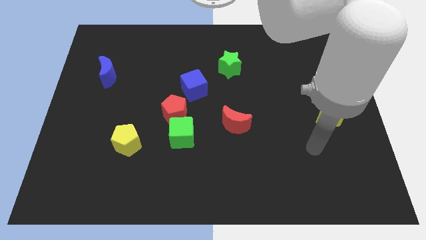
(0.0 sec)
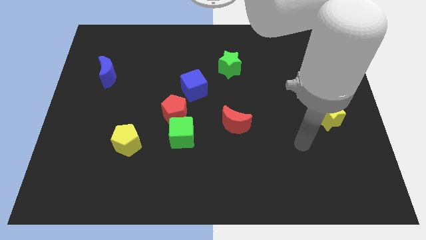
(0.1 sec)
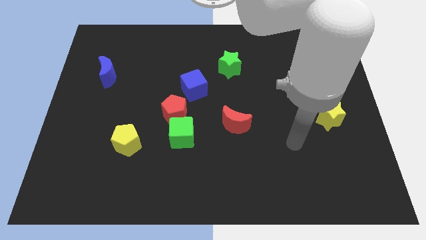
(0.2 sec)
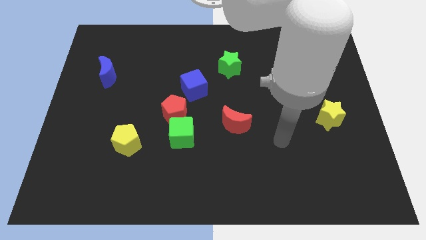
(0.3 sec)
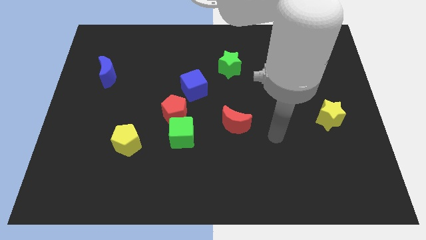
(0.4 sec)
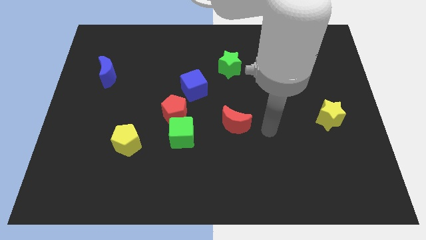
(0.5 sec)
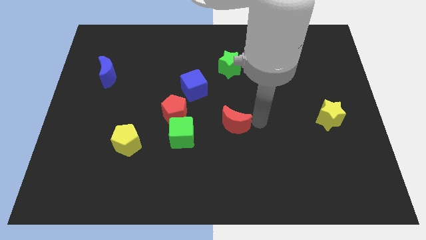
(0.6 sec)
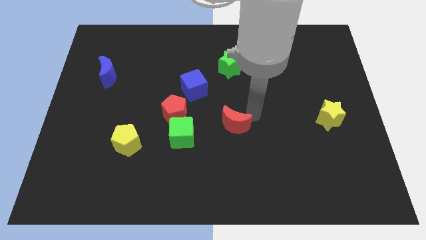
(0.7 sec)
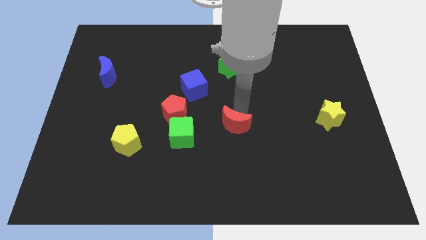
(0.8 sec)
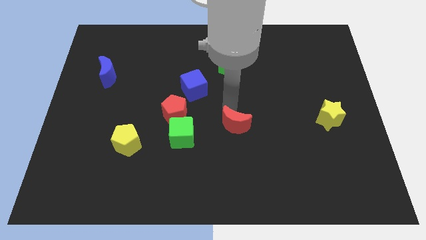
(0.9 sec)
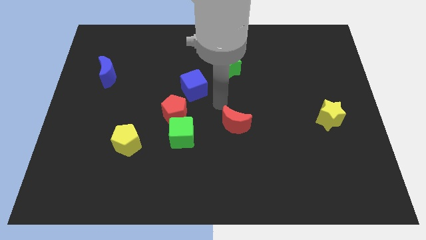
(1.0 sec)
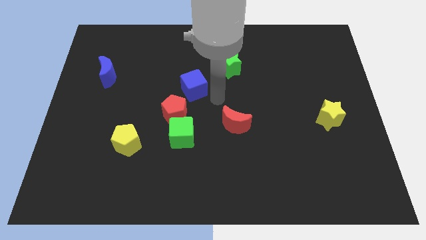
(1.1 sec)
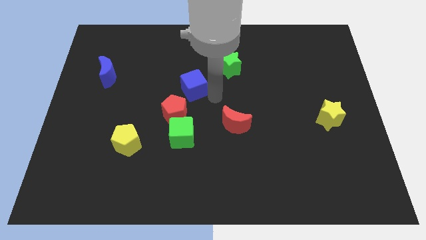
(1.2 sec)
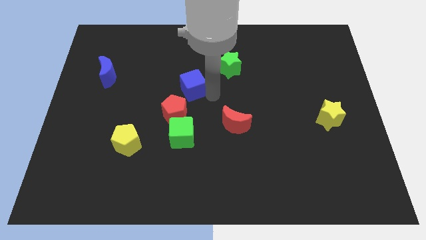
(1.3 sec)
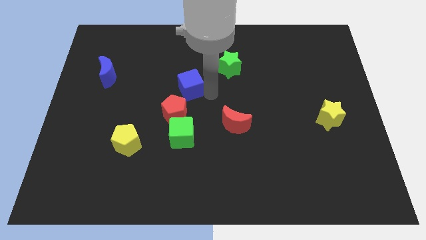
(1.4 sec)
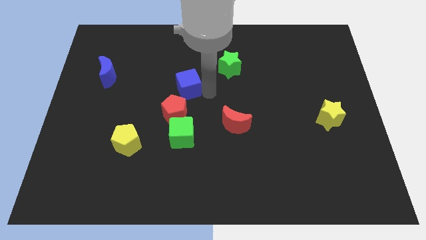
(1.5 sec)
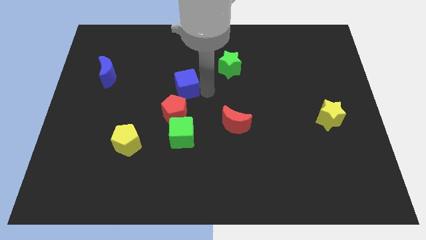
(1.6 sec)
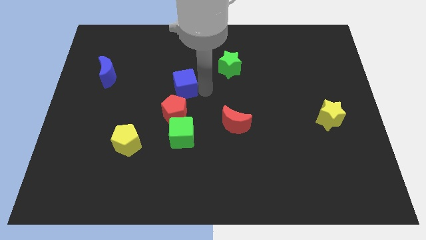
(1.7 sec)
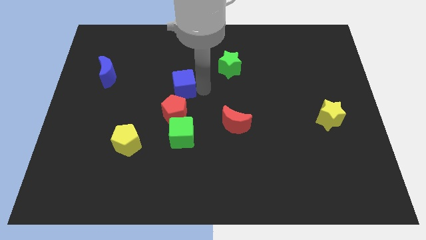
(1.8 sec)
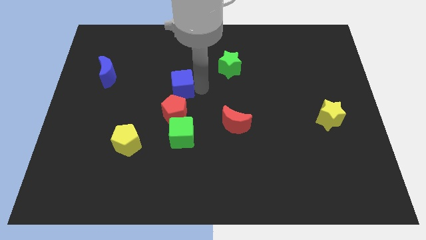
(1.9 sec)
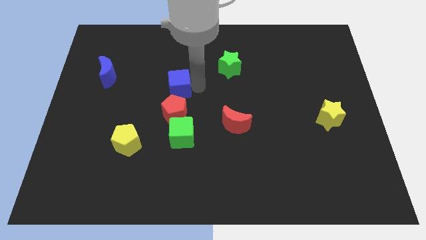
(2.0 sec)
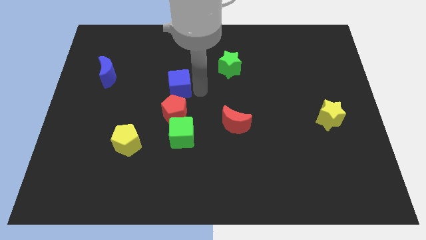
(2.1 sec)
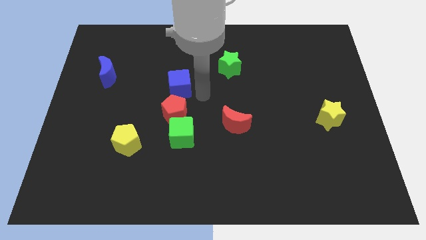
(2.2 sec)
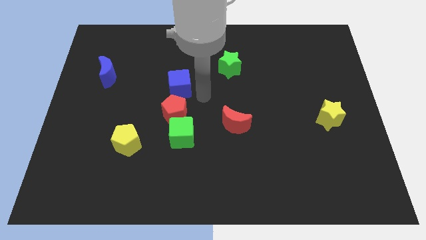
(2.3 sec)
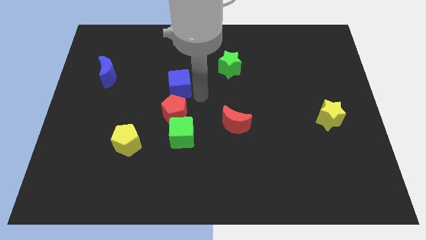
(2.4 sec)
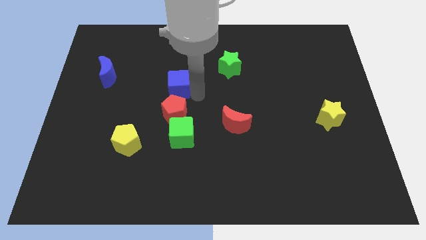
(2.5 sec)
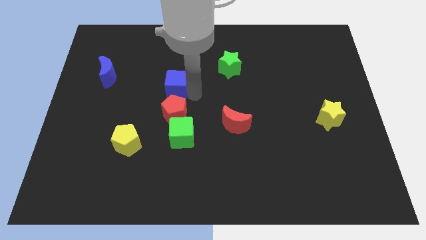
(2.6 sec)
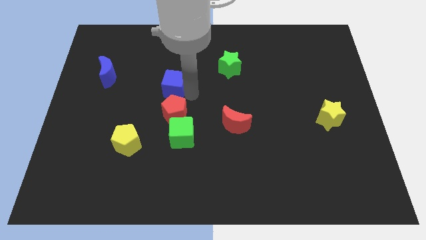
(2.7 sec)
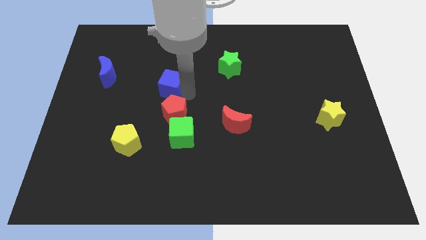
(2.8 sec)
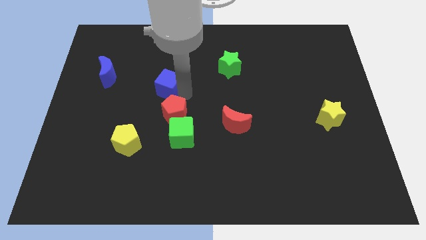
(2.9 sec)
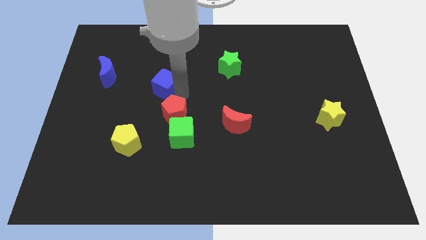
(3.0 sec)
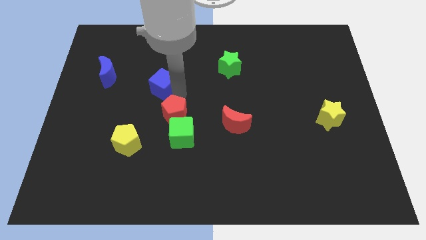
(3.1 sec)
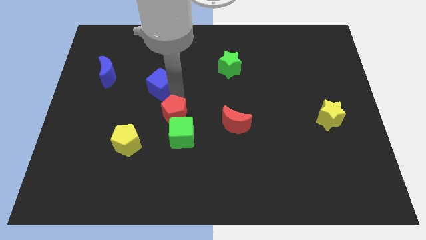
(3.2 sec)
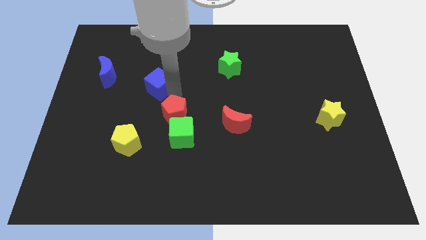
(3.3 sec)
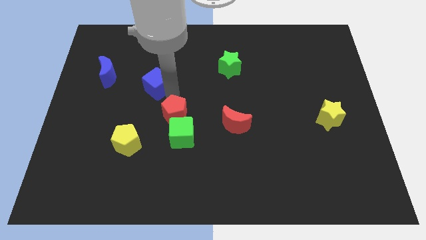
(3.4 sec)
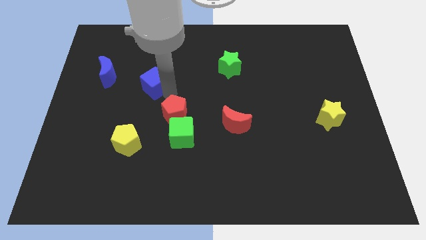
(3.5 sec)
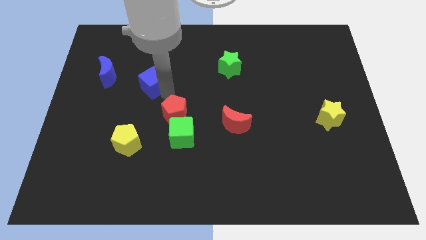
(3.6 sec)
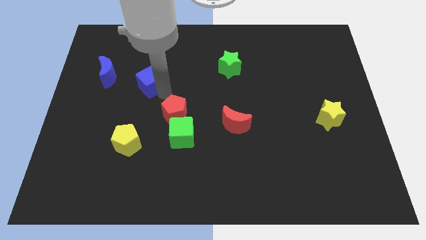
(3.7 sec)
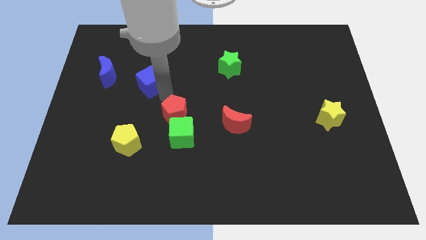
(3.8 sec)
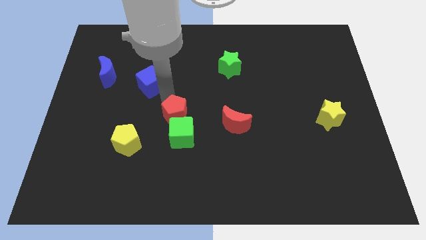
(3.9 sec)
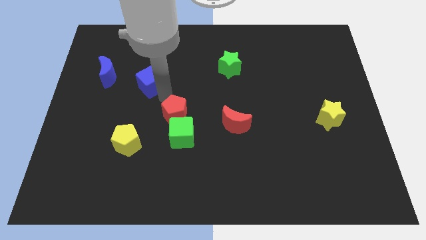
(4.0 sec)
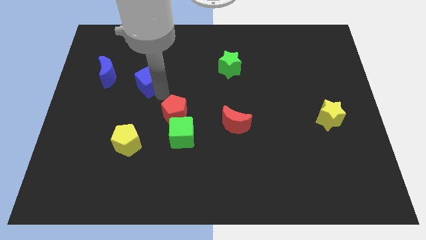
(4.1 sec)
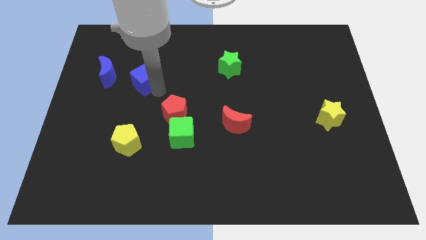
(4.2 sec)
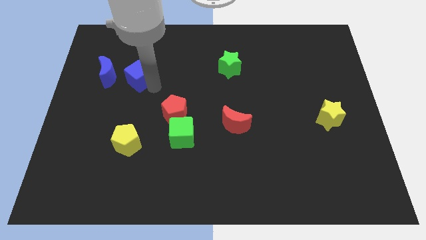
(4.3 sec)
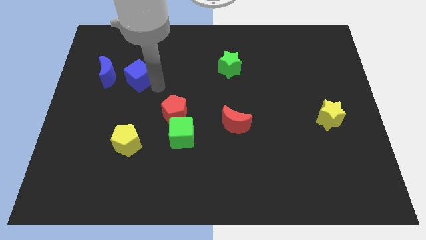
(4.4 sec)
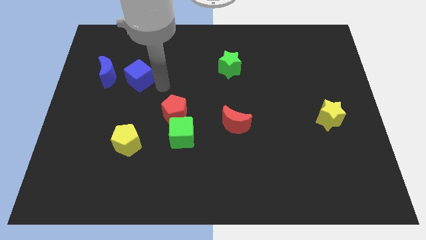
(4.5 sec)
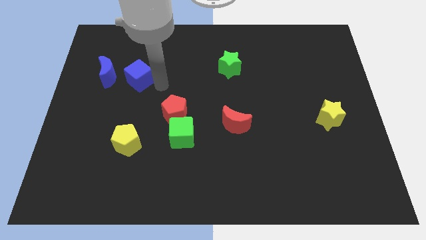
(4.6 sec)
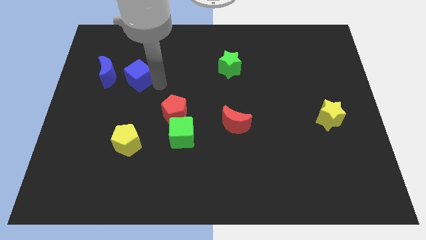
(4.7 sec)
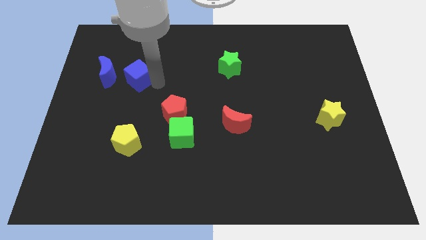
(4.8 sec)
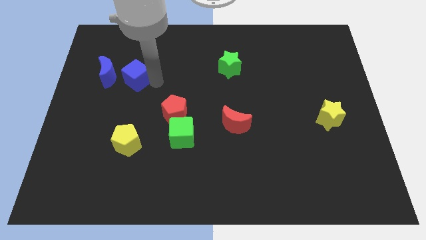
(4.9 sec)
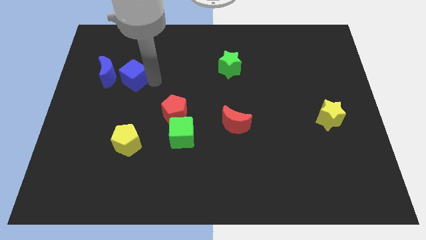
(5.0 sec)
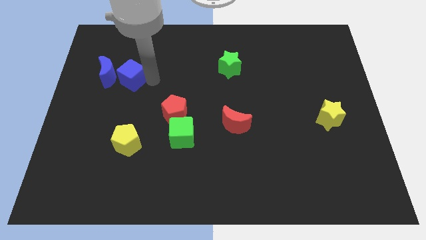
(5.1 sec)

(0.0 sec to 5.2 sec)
move the blue cube to the blue moon

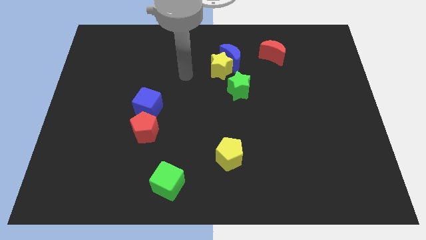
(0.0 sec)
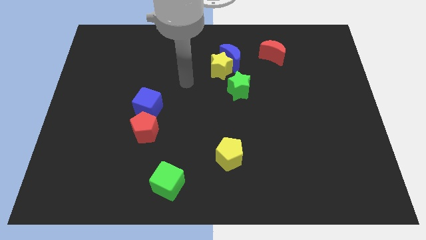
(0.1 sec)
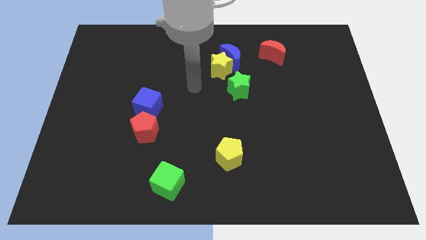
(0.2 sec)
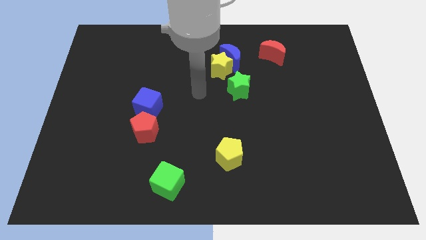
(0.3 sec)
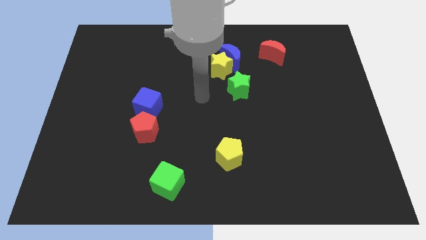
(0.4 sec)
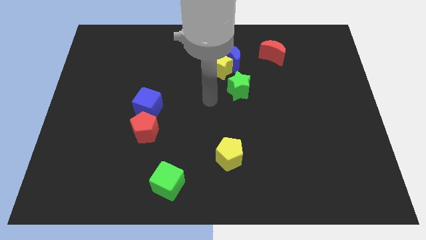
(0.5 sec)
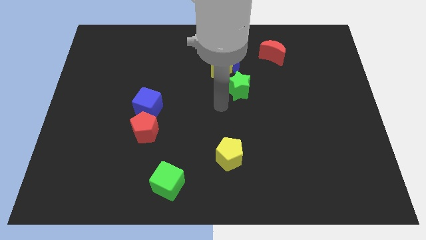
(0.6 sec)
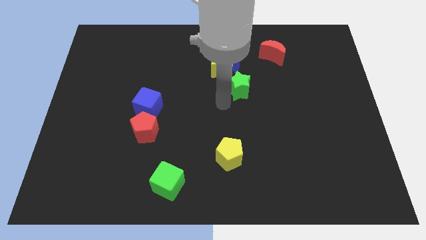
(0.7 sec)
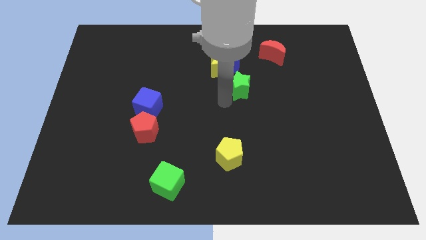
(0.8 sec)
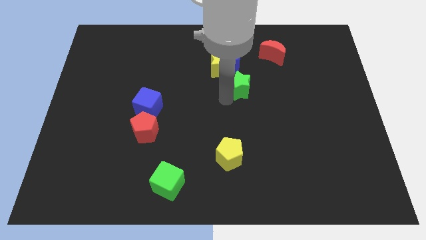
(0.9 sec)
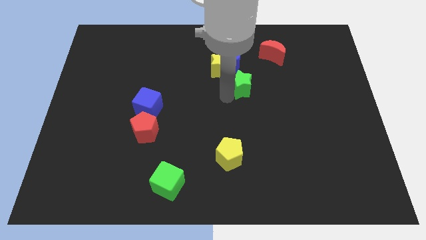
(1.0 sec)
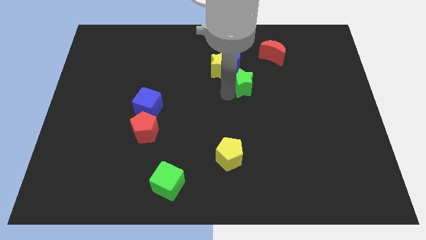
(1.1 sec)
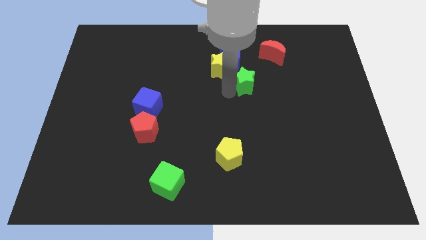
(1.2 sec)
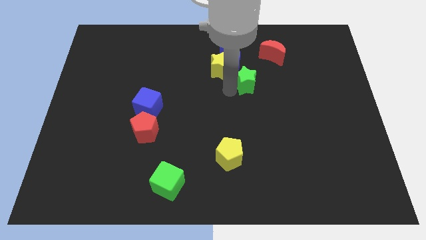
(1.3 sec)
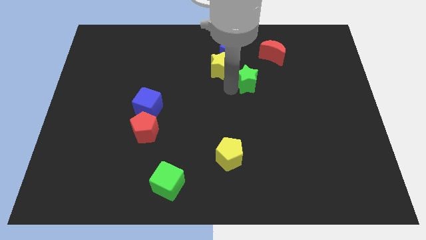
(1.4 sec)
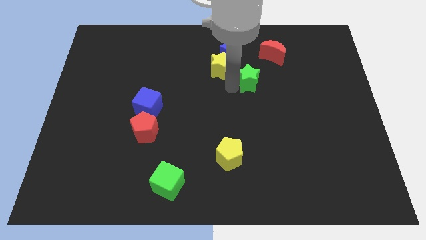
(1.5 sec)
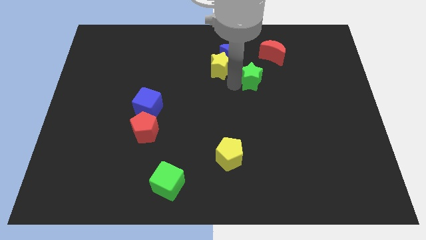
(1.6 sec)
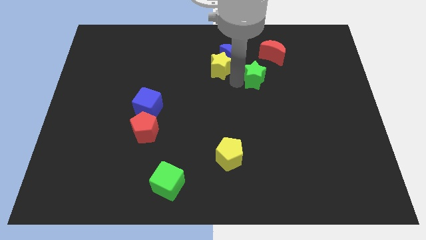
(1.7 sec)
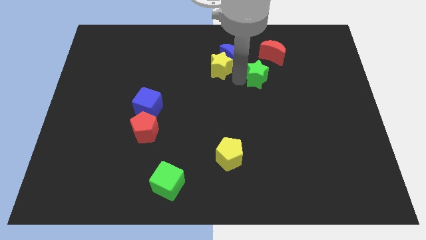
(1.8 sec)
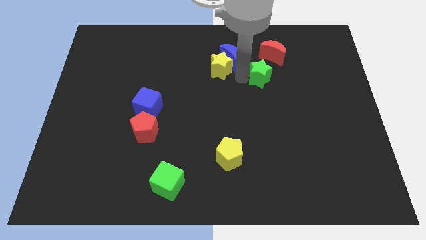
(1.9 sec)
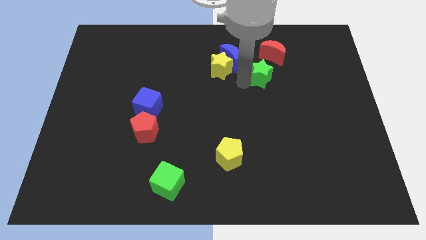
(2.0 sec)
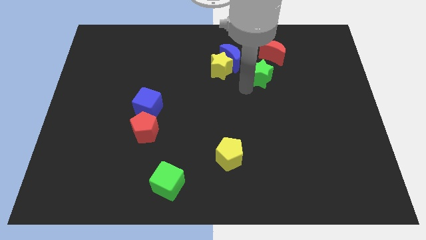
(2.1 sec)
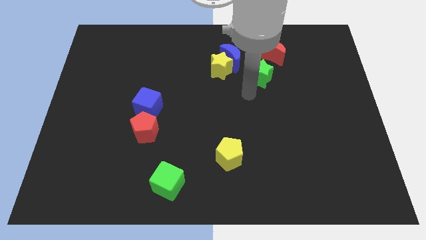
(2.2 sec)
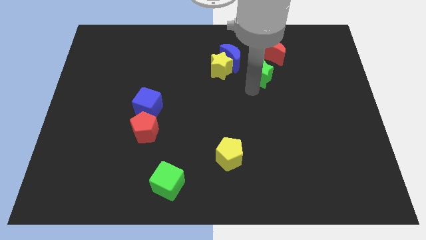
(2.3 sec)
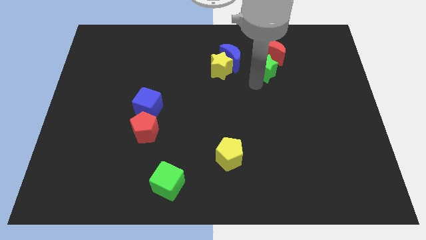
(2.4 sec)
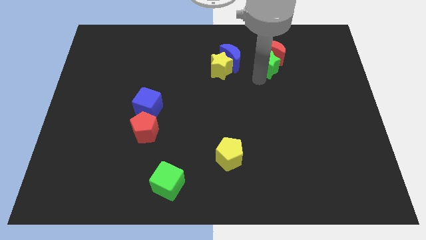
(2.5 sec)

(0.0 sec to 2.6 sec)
slide the green star next to the red moon
